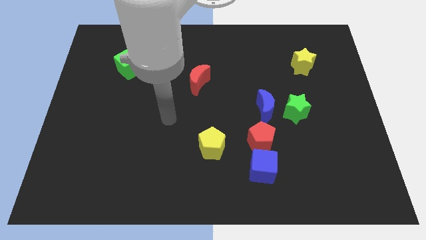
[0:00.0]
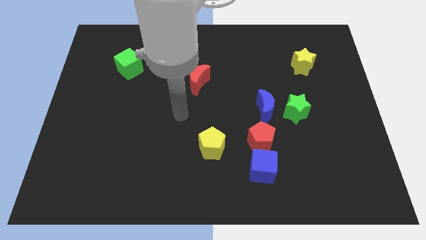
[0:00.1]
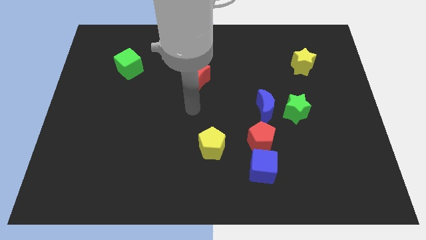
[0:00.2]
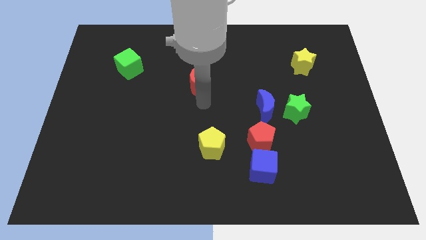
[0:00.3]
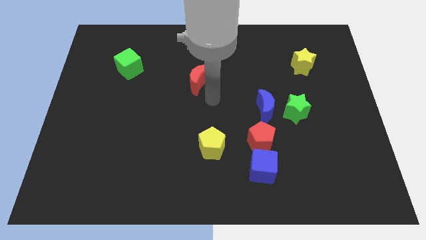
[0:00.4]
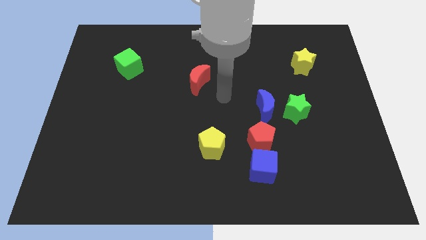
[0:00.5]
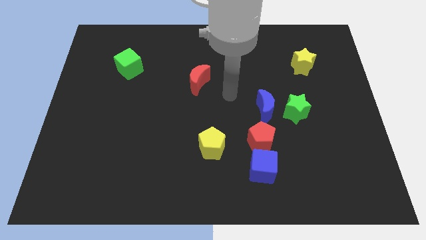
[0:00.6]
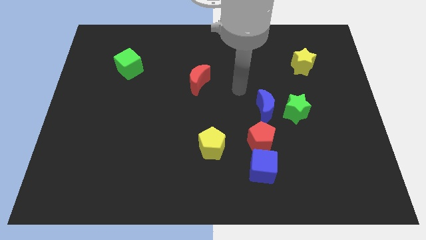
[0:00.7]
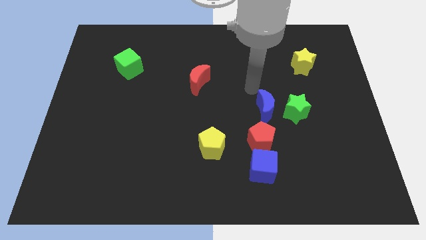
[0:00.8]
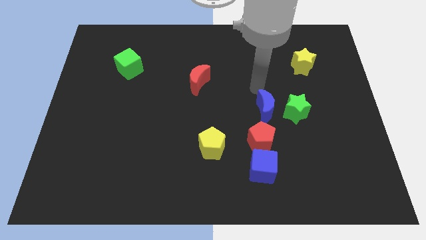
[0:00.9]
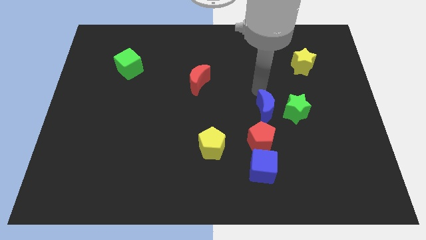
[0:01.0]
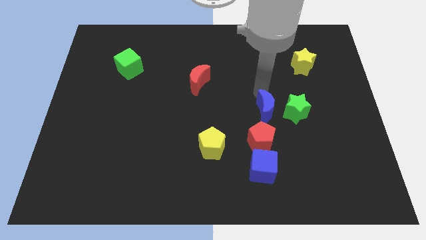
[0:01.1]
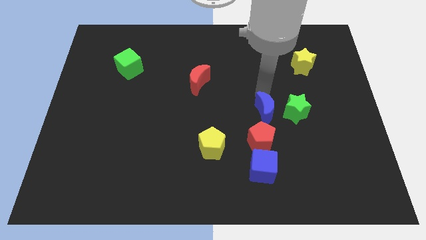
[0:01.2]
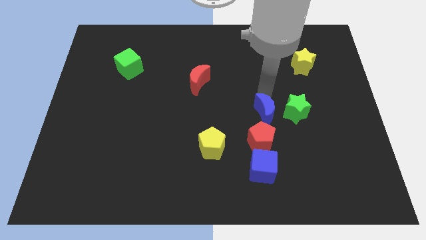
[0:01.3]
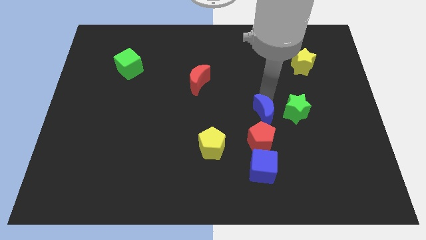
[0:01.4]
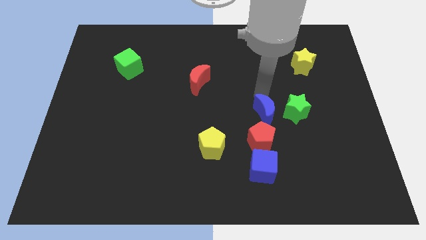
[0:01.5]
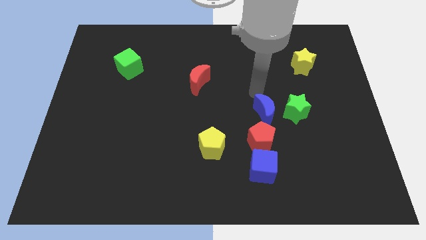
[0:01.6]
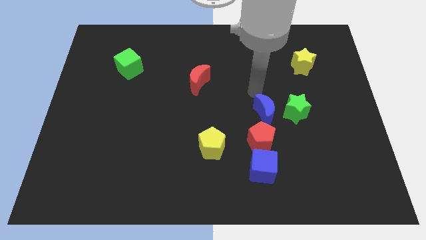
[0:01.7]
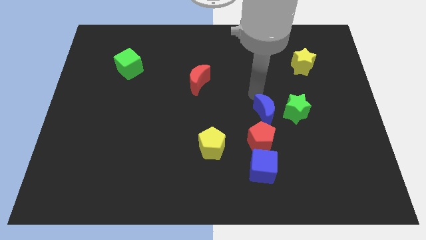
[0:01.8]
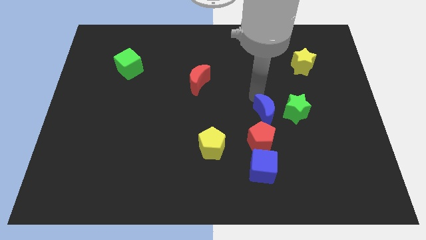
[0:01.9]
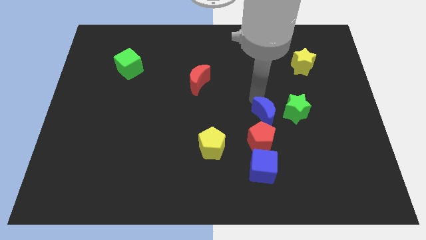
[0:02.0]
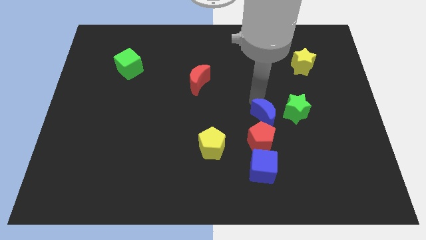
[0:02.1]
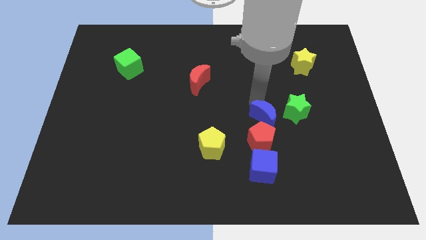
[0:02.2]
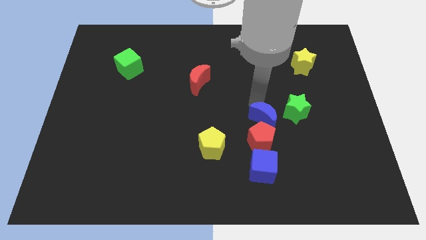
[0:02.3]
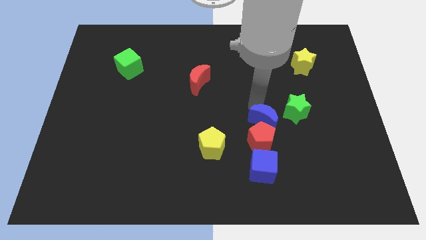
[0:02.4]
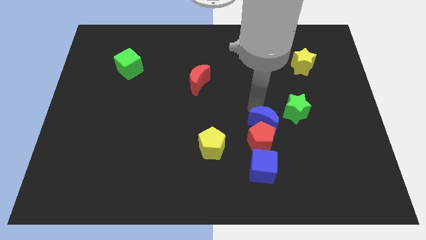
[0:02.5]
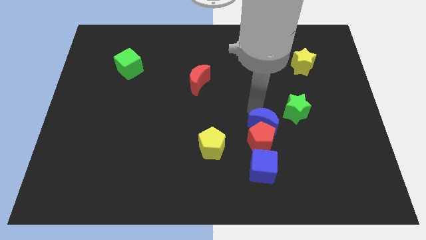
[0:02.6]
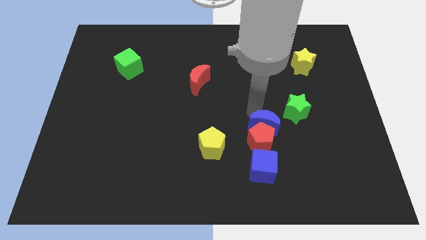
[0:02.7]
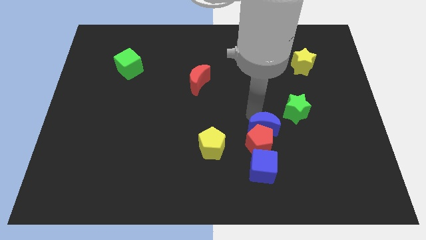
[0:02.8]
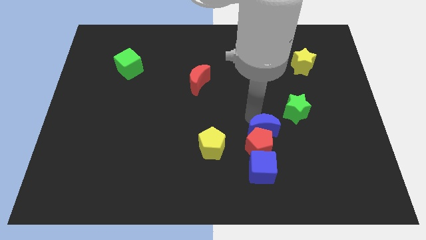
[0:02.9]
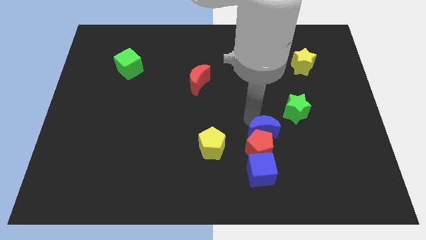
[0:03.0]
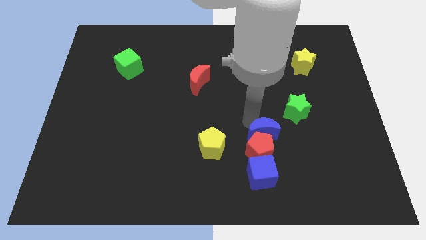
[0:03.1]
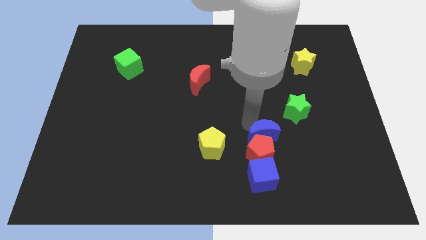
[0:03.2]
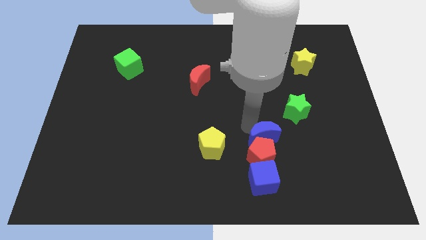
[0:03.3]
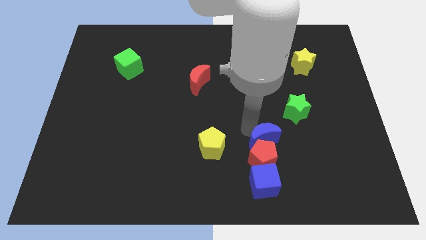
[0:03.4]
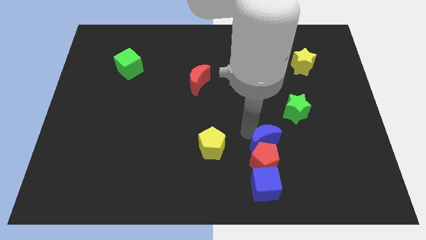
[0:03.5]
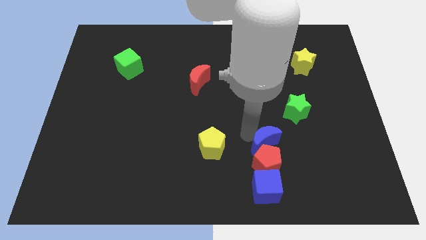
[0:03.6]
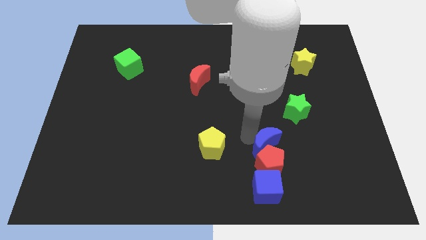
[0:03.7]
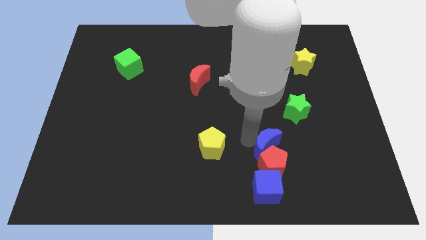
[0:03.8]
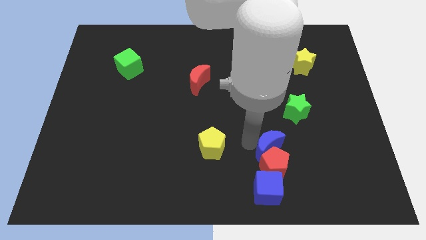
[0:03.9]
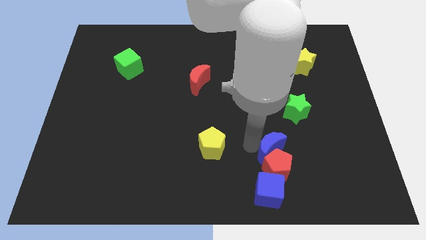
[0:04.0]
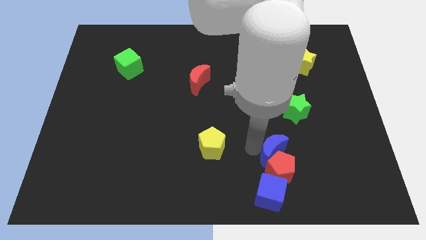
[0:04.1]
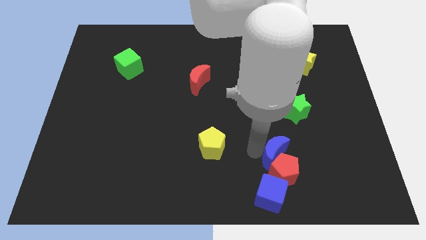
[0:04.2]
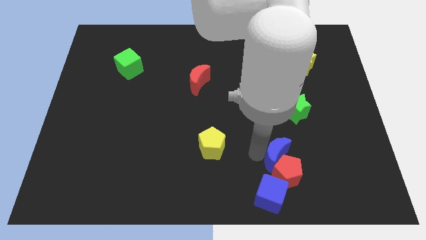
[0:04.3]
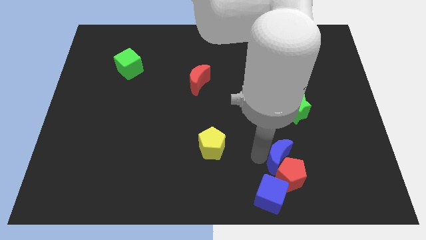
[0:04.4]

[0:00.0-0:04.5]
move the blue moon a bit downwards and right diagonally

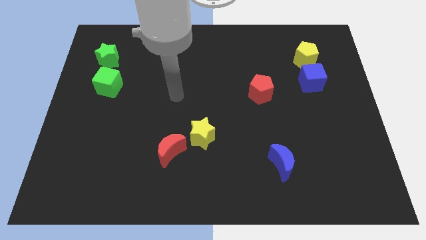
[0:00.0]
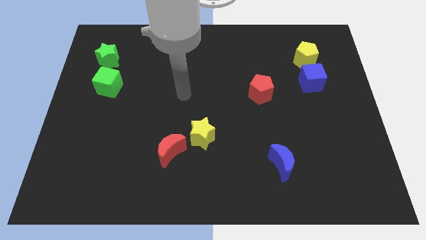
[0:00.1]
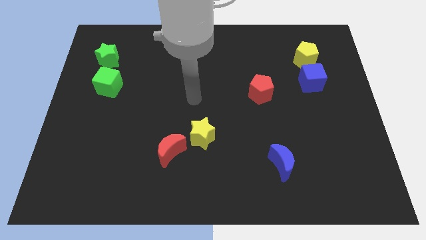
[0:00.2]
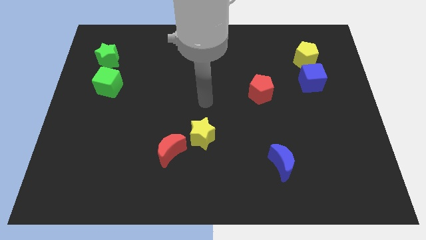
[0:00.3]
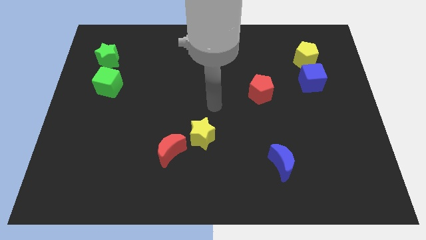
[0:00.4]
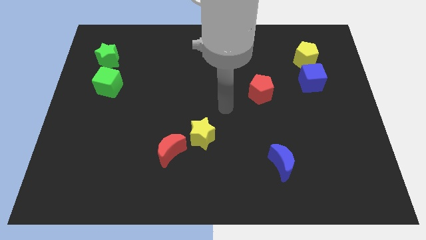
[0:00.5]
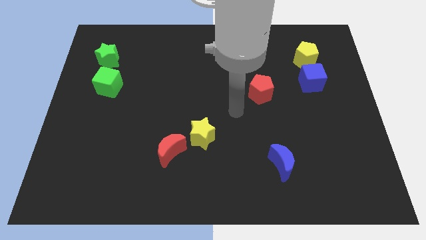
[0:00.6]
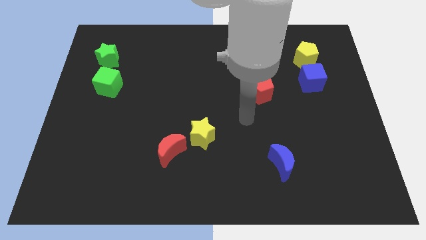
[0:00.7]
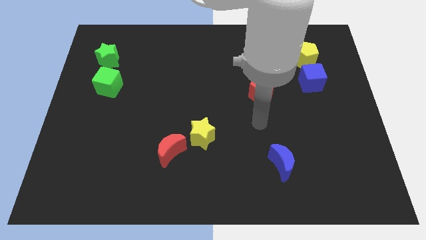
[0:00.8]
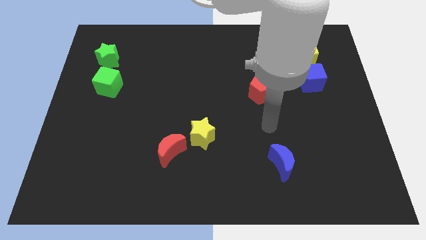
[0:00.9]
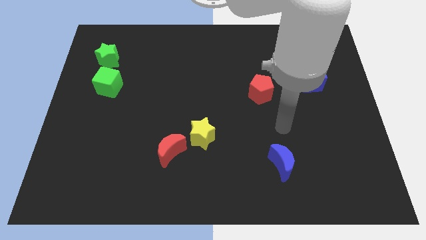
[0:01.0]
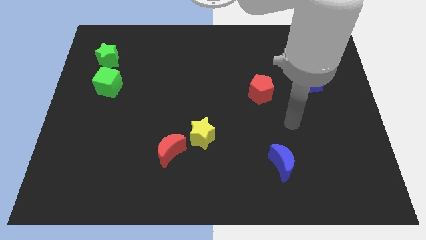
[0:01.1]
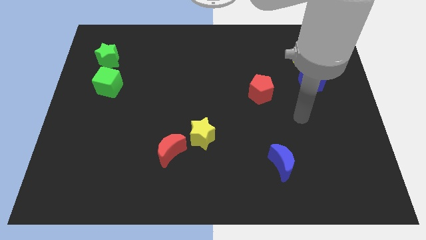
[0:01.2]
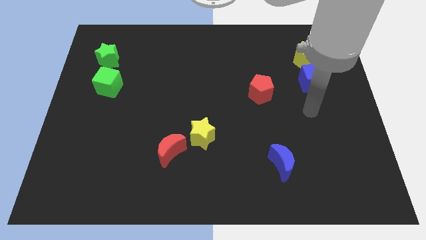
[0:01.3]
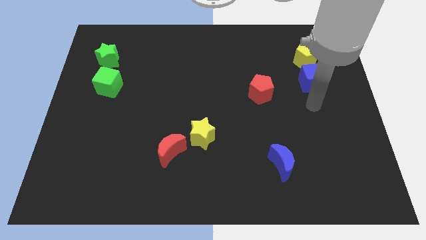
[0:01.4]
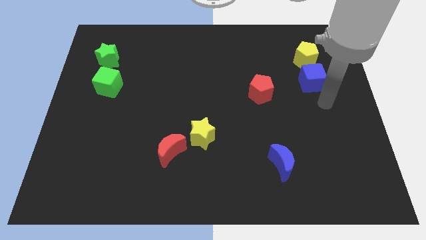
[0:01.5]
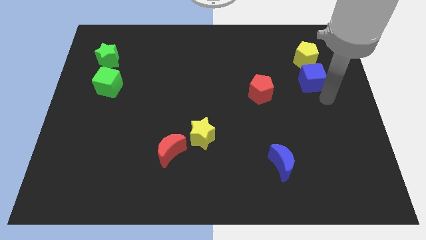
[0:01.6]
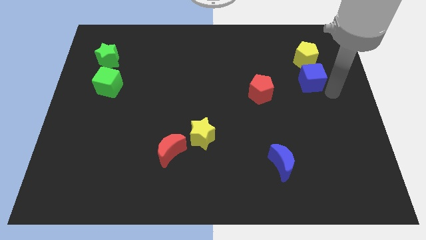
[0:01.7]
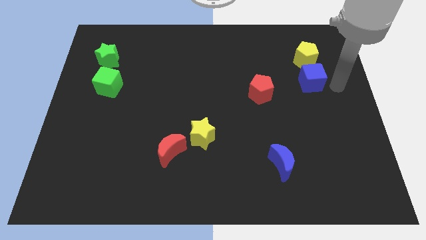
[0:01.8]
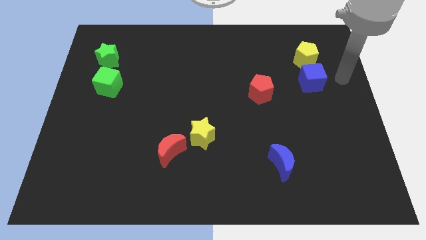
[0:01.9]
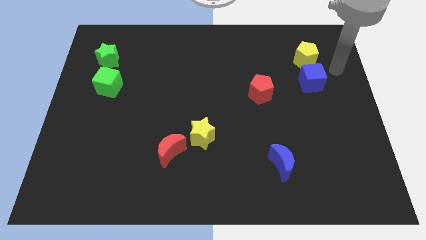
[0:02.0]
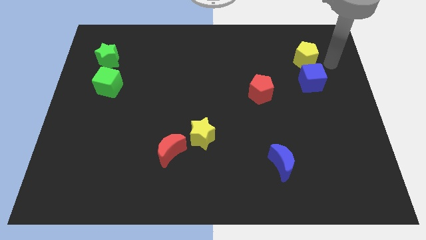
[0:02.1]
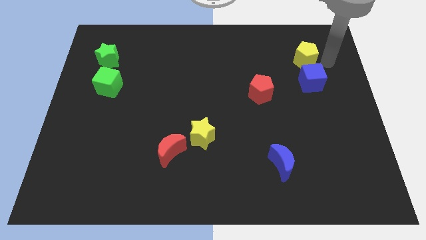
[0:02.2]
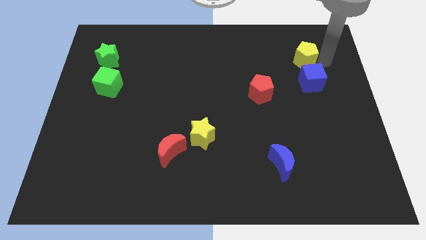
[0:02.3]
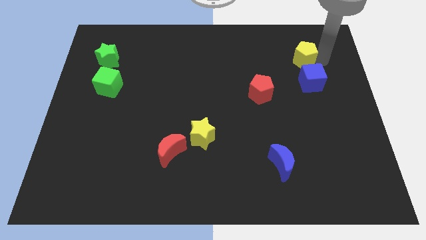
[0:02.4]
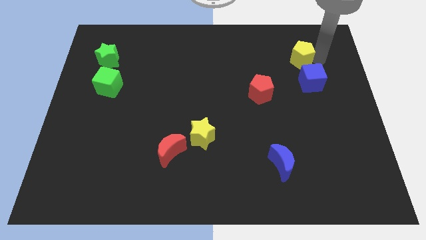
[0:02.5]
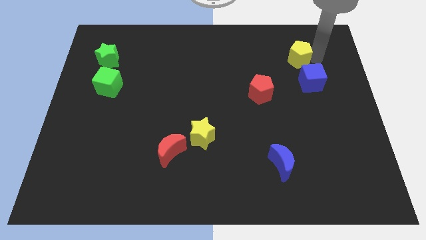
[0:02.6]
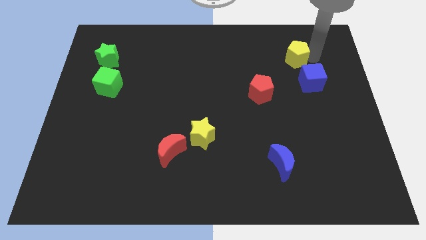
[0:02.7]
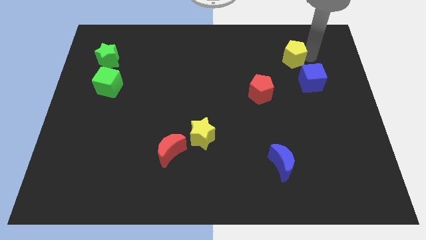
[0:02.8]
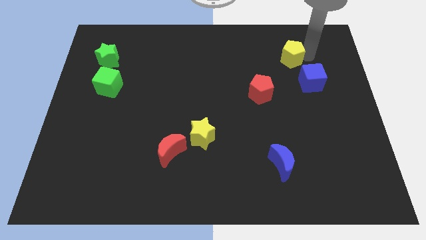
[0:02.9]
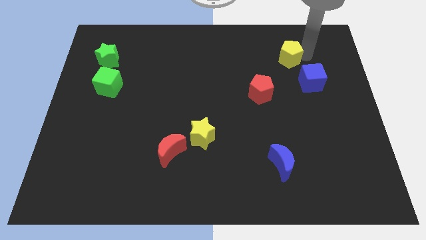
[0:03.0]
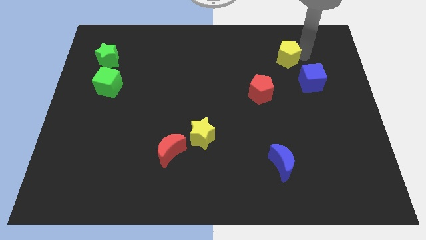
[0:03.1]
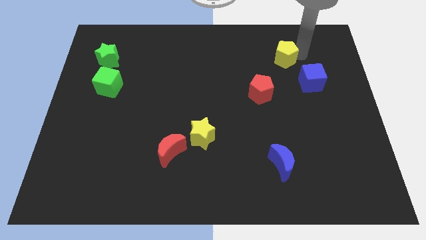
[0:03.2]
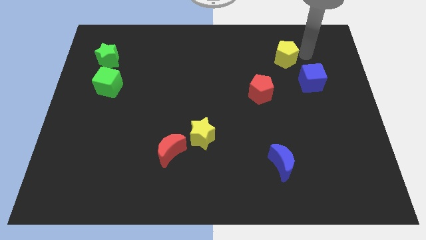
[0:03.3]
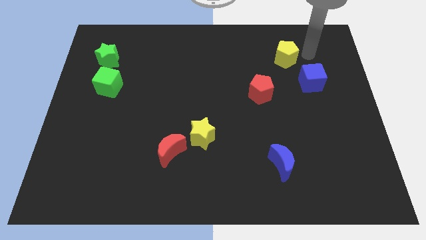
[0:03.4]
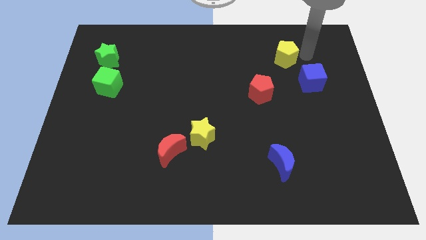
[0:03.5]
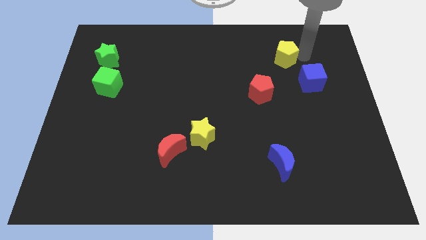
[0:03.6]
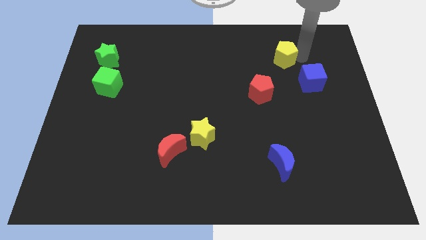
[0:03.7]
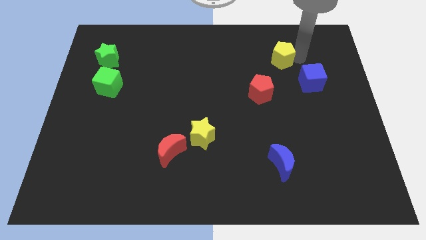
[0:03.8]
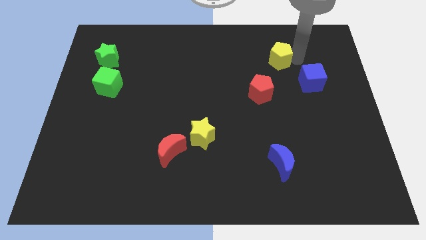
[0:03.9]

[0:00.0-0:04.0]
slide the yellow pentagon to the left slightly
